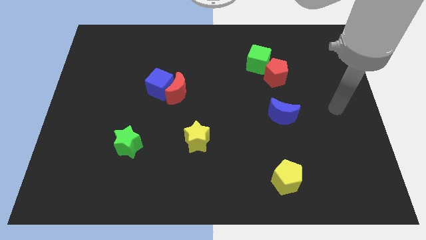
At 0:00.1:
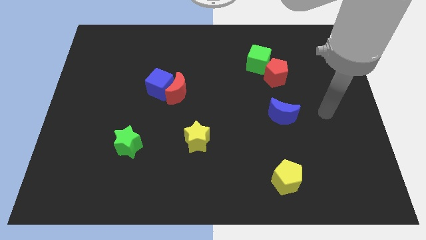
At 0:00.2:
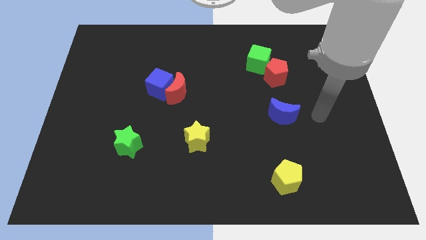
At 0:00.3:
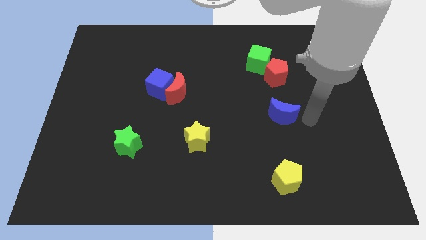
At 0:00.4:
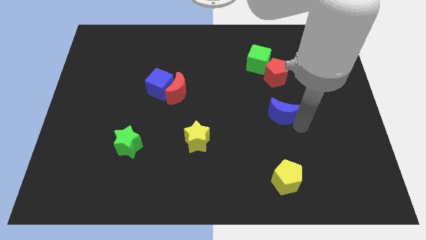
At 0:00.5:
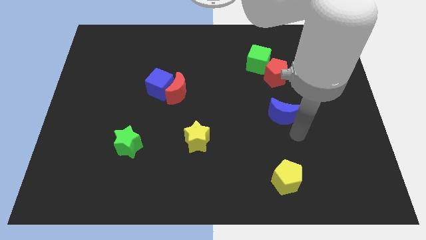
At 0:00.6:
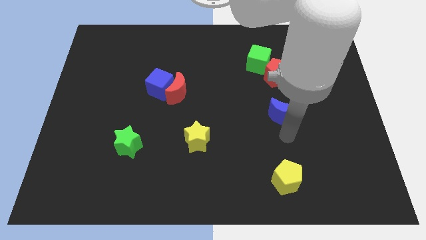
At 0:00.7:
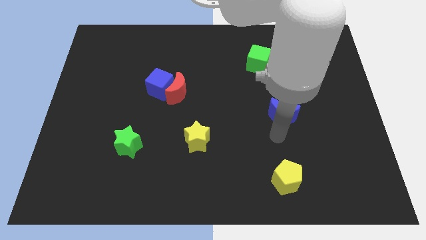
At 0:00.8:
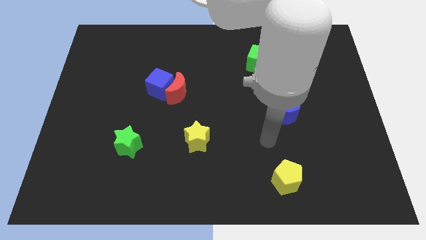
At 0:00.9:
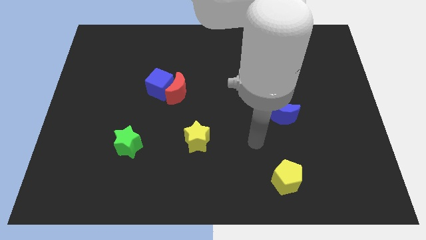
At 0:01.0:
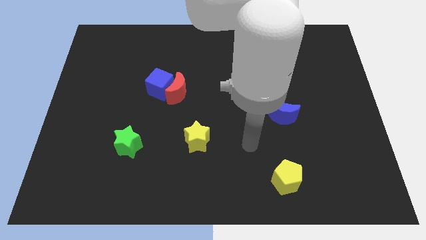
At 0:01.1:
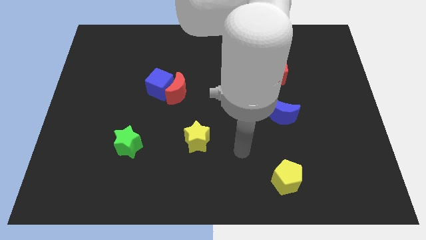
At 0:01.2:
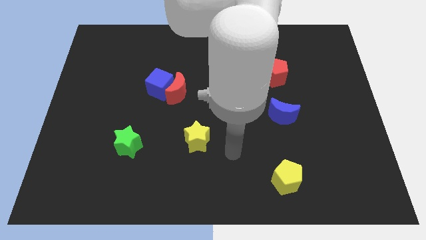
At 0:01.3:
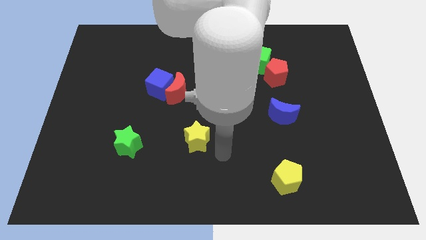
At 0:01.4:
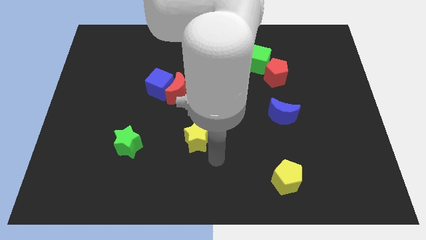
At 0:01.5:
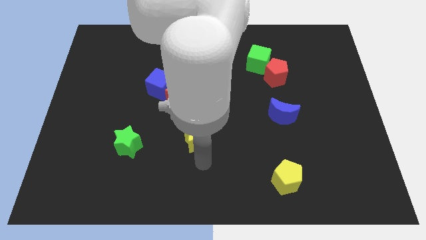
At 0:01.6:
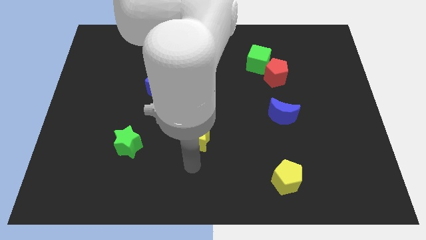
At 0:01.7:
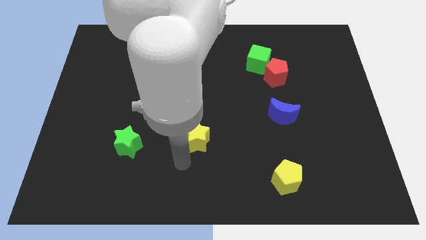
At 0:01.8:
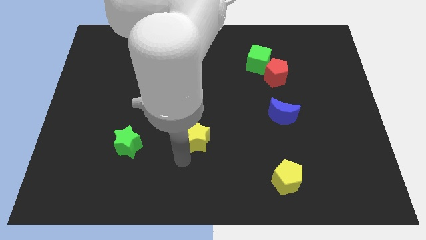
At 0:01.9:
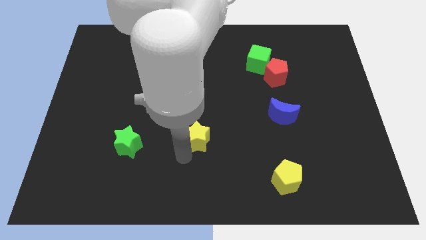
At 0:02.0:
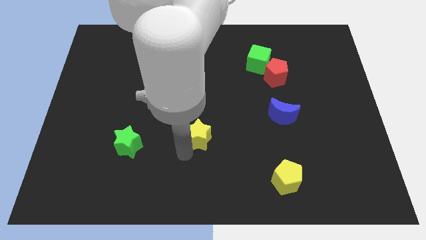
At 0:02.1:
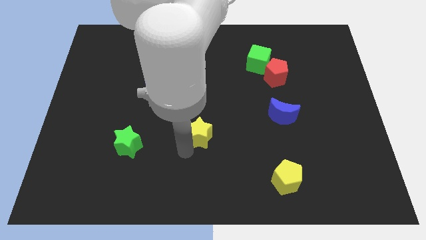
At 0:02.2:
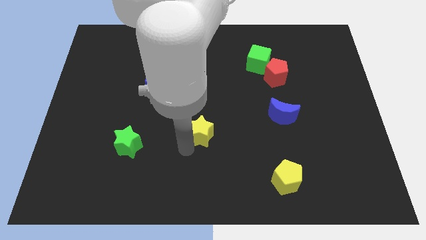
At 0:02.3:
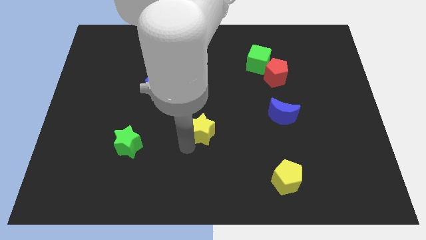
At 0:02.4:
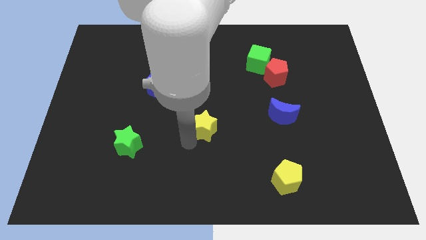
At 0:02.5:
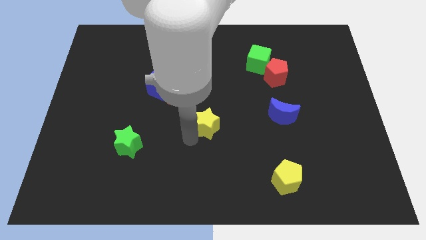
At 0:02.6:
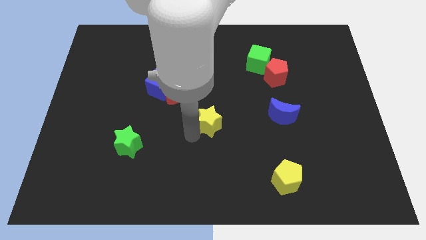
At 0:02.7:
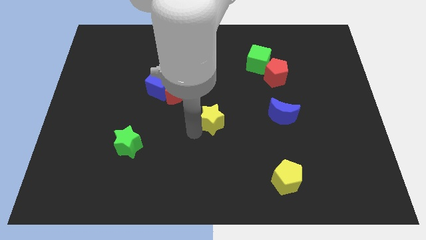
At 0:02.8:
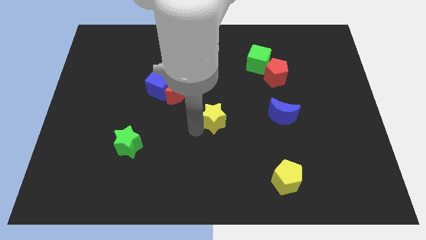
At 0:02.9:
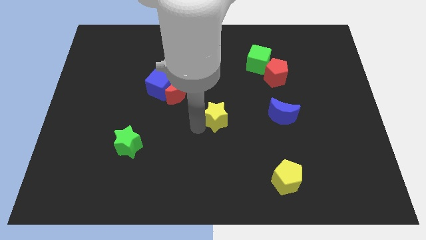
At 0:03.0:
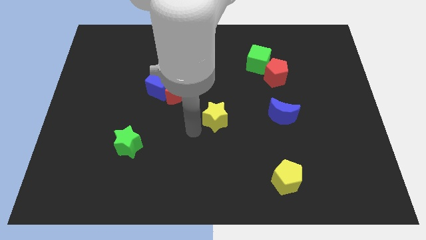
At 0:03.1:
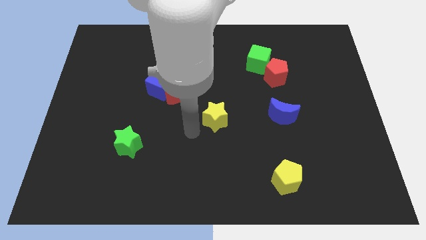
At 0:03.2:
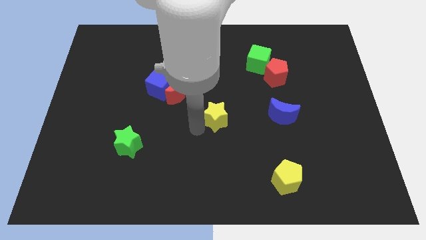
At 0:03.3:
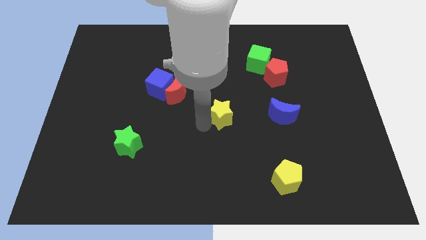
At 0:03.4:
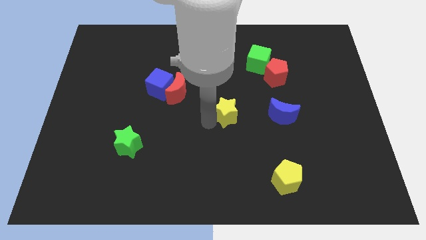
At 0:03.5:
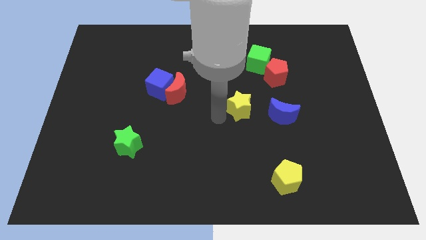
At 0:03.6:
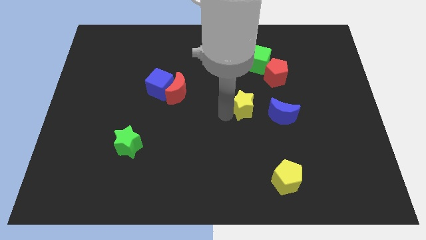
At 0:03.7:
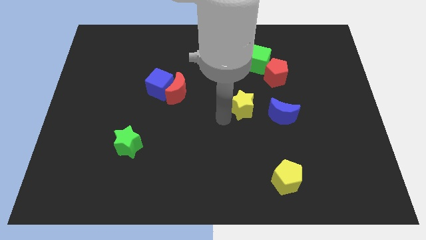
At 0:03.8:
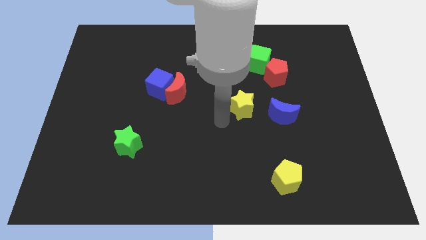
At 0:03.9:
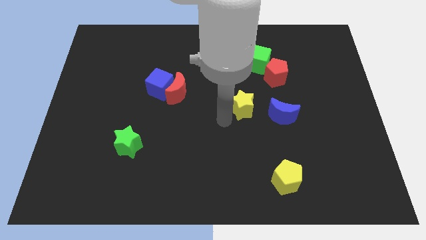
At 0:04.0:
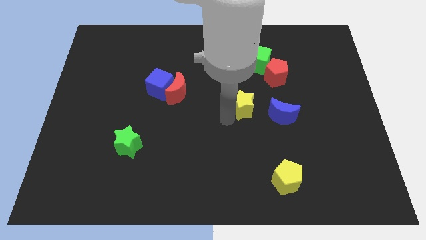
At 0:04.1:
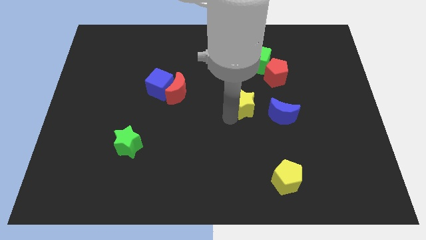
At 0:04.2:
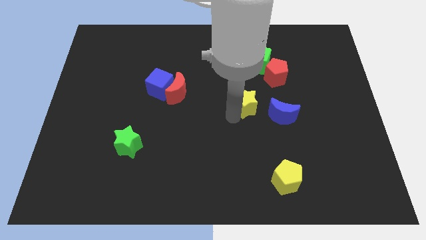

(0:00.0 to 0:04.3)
move the yellow star below the green cube

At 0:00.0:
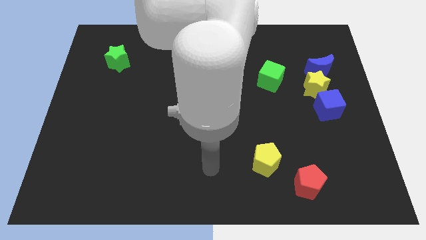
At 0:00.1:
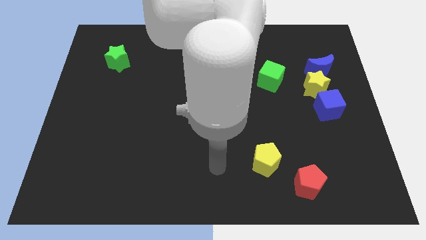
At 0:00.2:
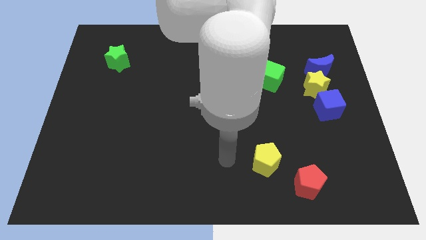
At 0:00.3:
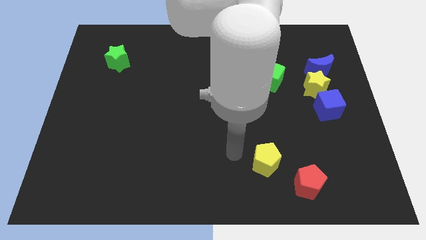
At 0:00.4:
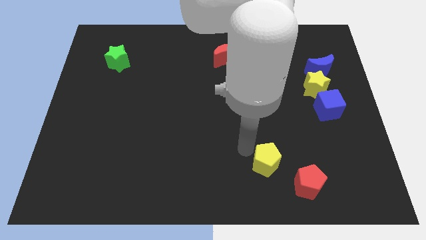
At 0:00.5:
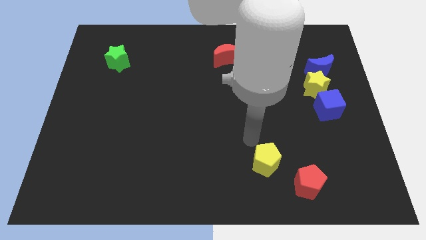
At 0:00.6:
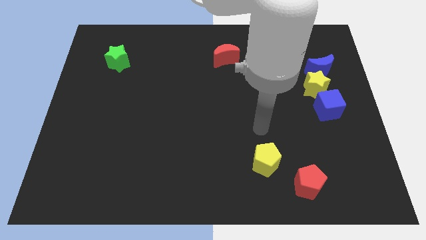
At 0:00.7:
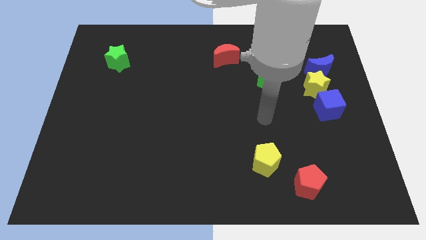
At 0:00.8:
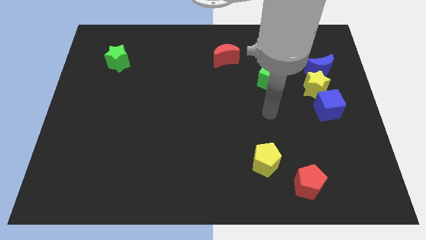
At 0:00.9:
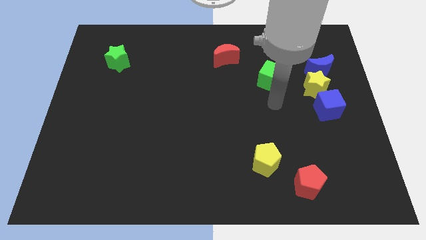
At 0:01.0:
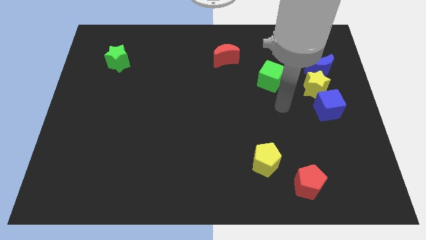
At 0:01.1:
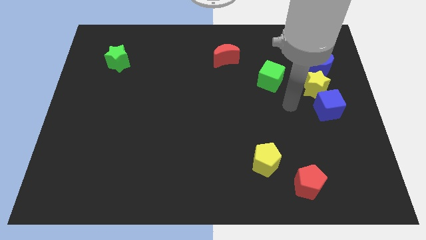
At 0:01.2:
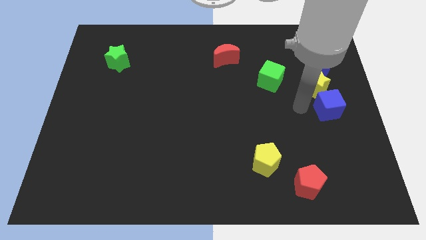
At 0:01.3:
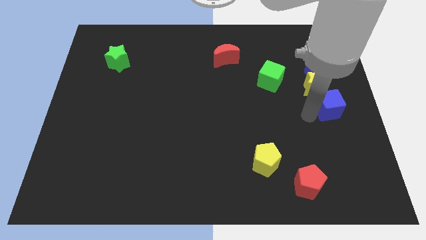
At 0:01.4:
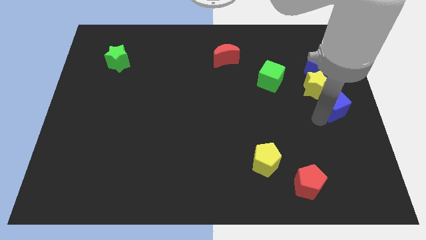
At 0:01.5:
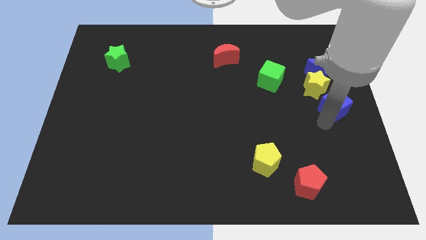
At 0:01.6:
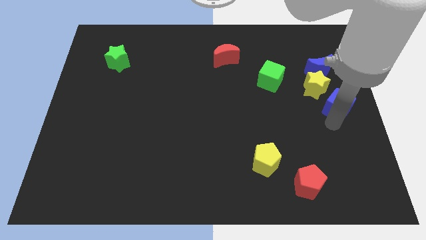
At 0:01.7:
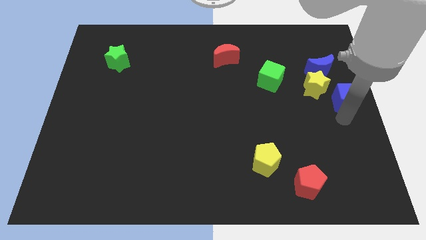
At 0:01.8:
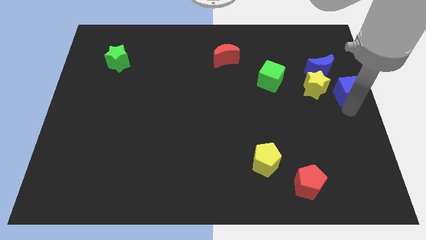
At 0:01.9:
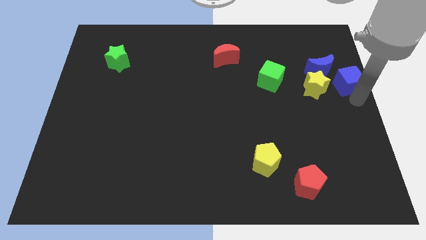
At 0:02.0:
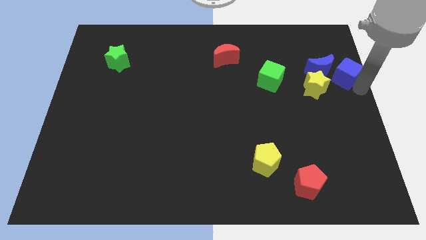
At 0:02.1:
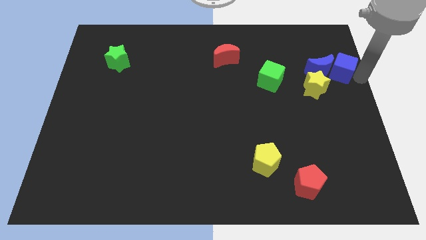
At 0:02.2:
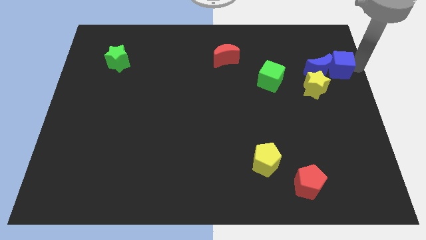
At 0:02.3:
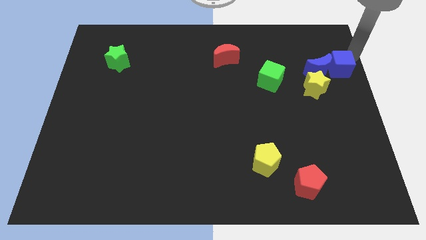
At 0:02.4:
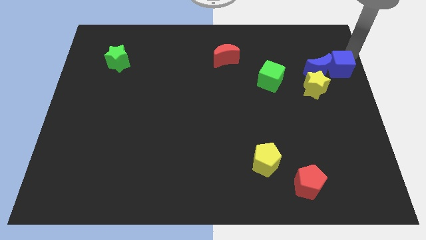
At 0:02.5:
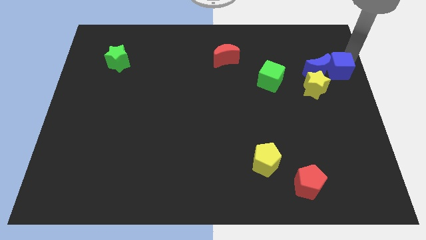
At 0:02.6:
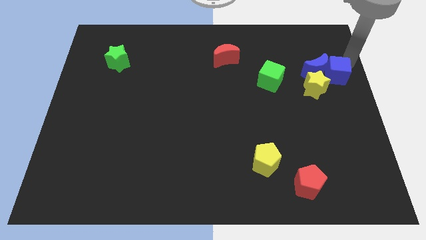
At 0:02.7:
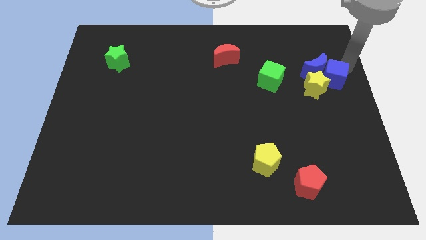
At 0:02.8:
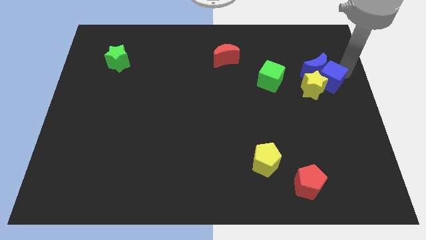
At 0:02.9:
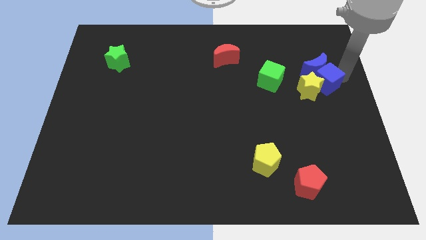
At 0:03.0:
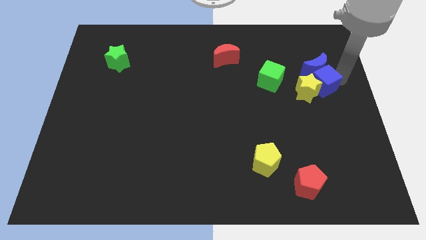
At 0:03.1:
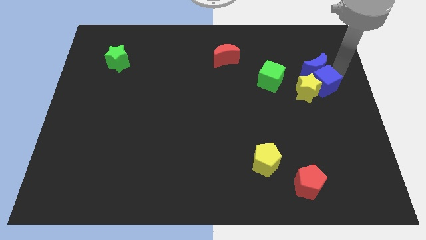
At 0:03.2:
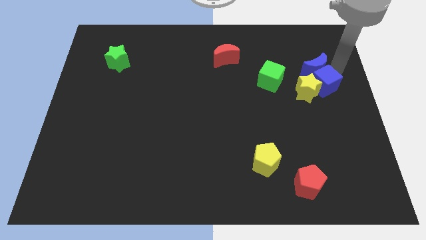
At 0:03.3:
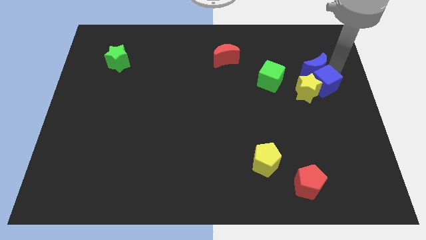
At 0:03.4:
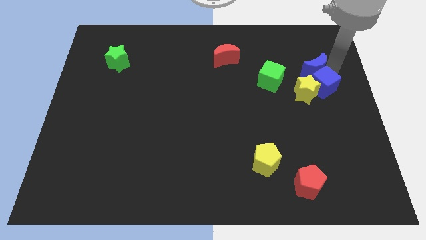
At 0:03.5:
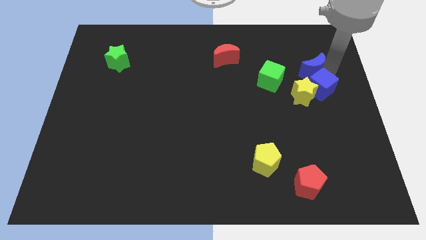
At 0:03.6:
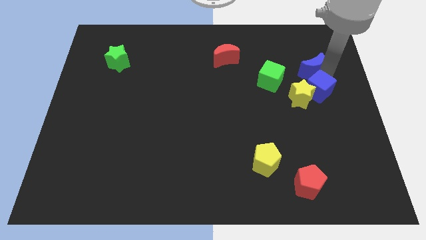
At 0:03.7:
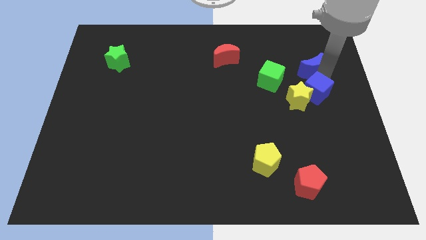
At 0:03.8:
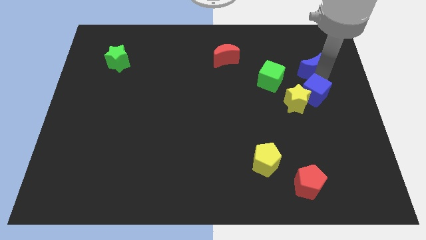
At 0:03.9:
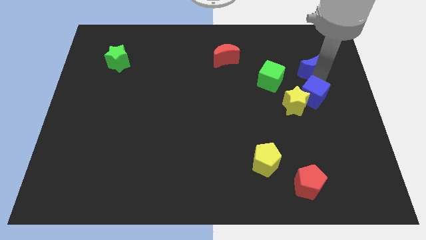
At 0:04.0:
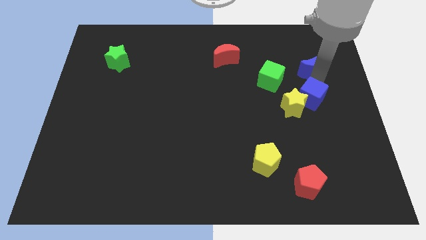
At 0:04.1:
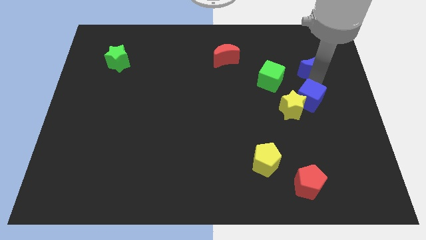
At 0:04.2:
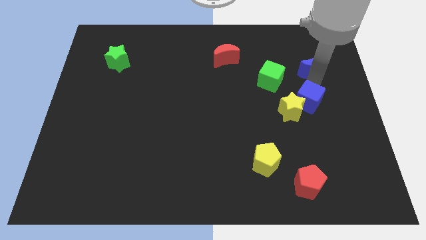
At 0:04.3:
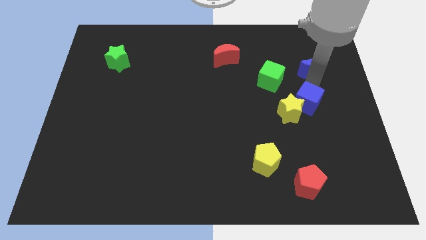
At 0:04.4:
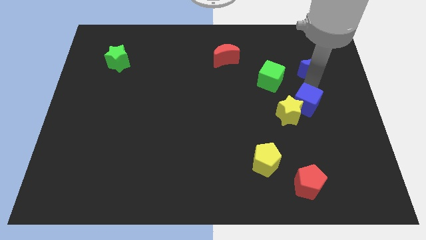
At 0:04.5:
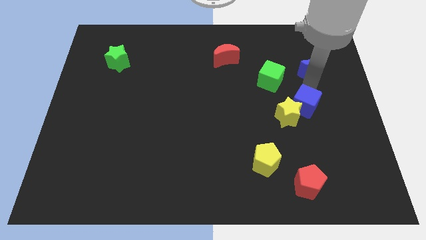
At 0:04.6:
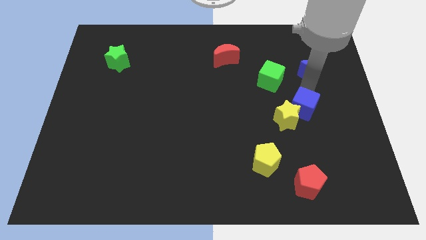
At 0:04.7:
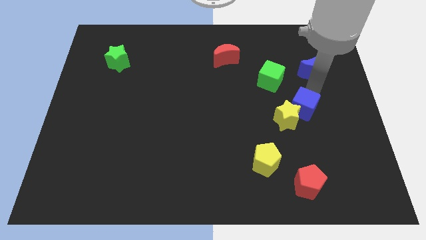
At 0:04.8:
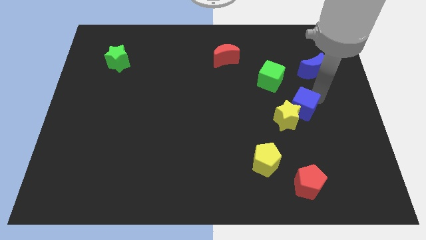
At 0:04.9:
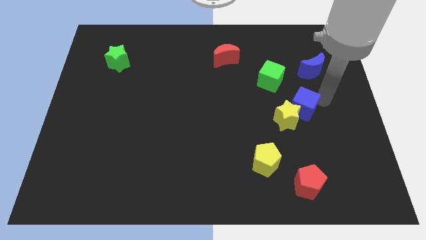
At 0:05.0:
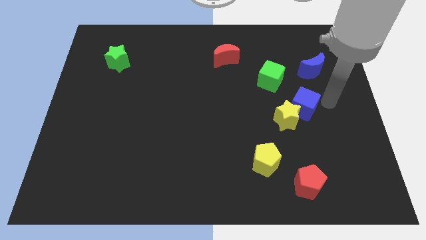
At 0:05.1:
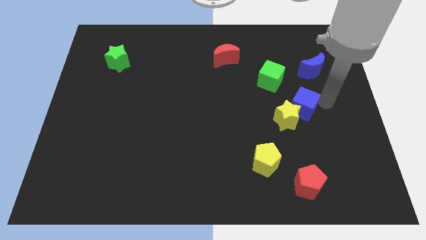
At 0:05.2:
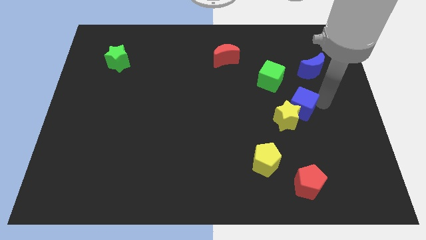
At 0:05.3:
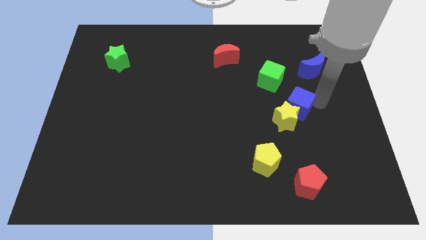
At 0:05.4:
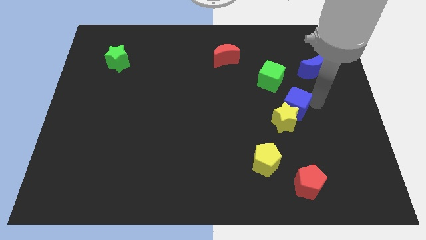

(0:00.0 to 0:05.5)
push the blue cube below the green cube
